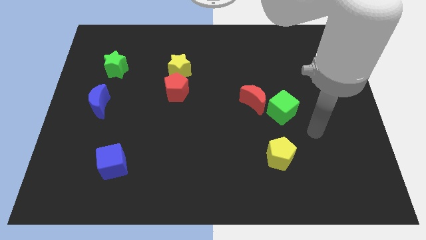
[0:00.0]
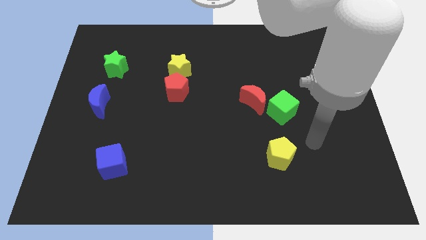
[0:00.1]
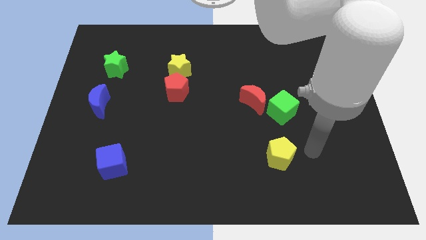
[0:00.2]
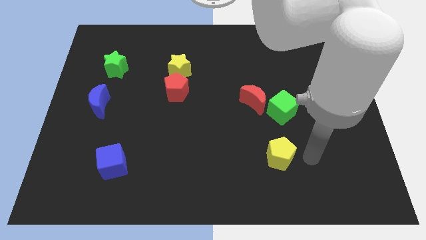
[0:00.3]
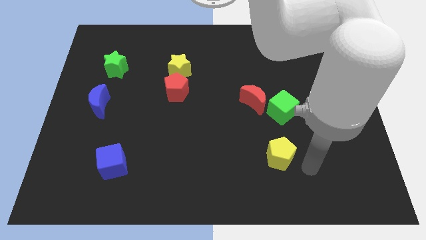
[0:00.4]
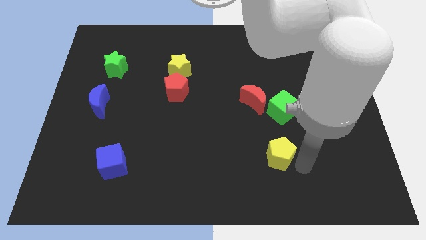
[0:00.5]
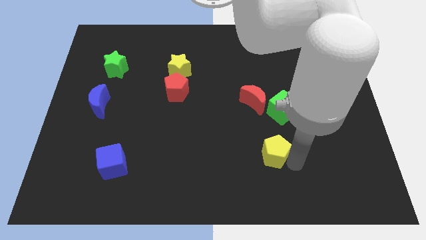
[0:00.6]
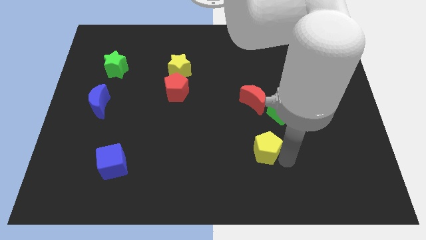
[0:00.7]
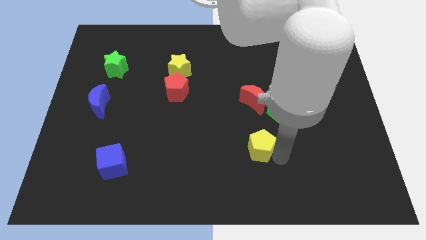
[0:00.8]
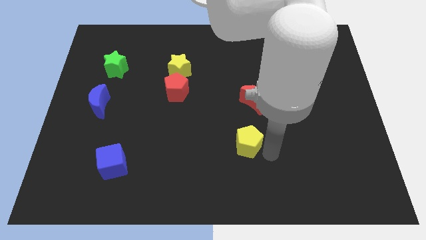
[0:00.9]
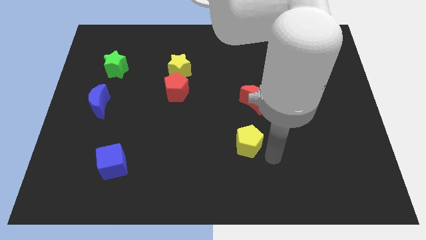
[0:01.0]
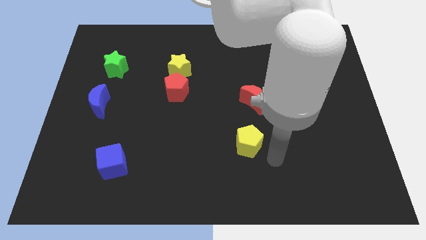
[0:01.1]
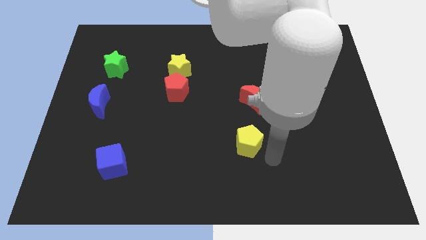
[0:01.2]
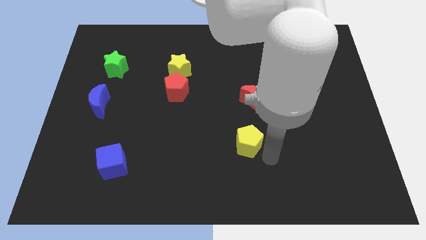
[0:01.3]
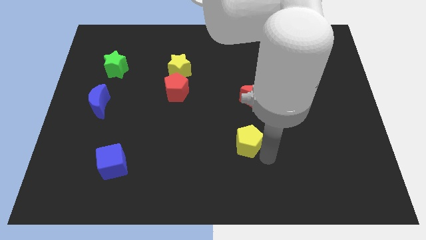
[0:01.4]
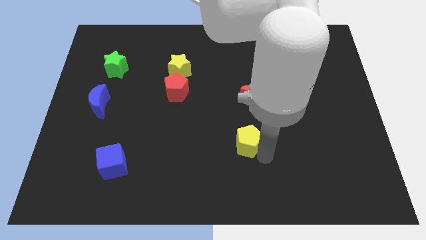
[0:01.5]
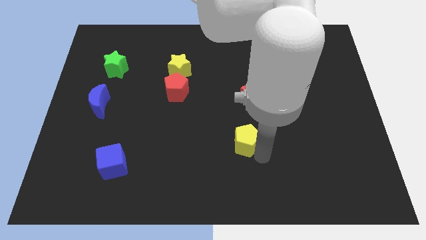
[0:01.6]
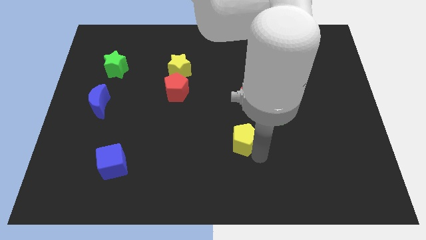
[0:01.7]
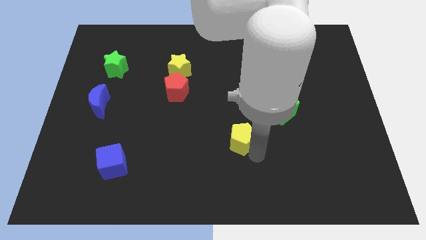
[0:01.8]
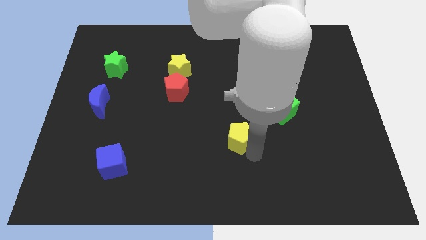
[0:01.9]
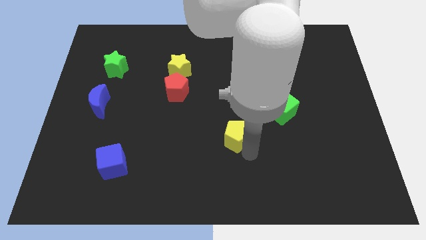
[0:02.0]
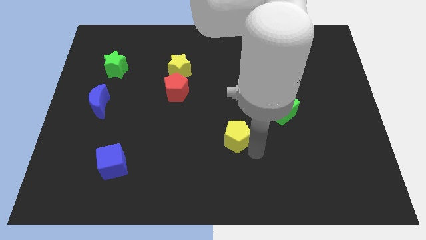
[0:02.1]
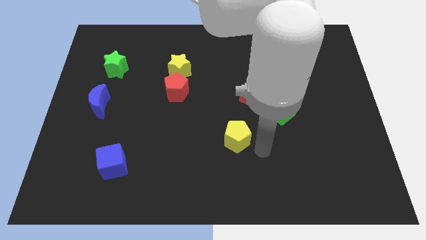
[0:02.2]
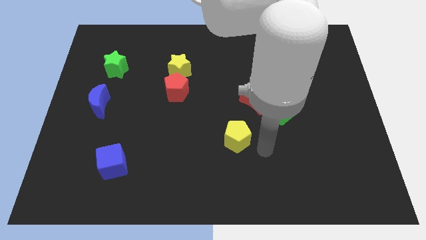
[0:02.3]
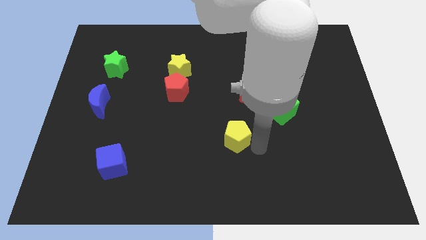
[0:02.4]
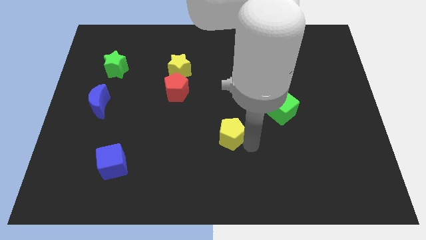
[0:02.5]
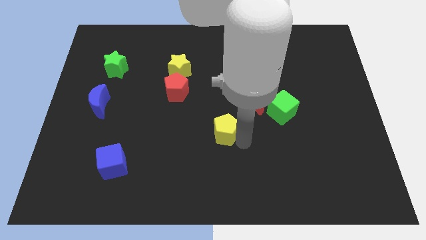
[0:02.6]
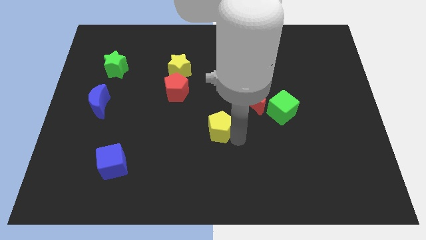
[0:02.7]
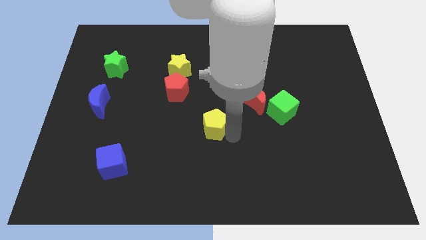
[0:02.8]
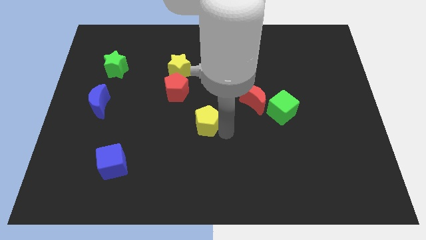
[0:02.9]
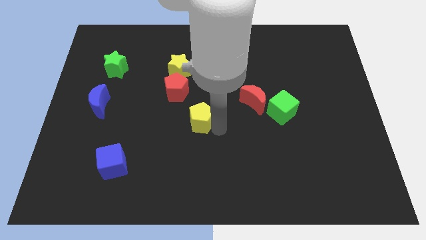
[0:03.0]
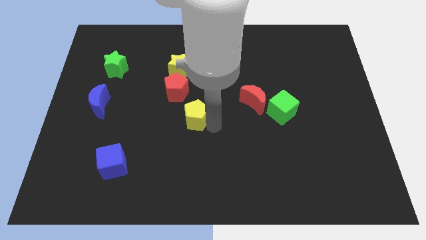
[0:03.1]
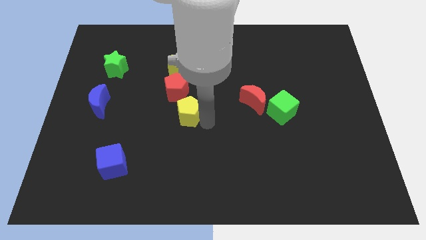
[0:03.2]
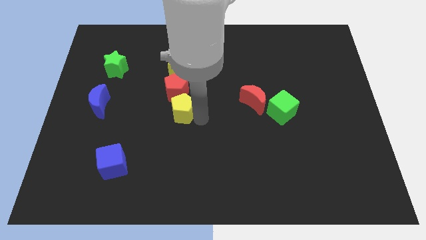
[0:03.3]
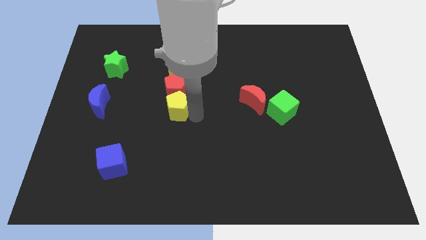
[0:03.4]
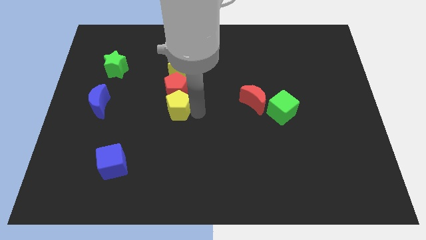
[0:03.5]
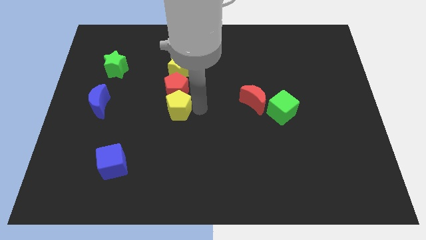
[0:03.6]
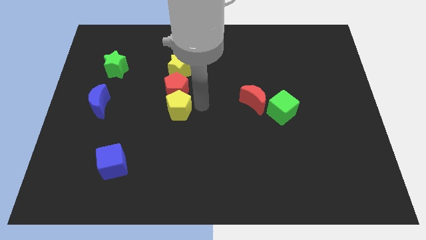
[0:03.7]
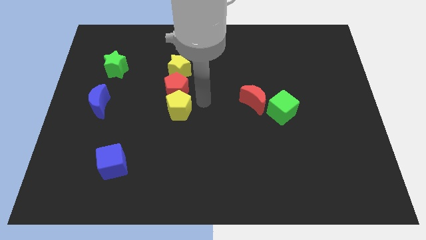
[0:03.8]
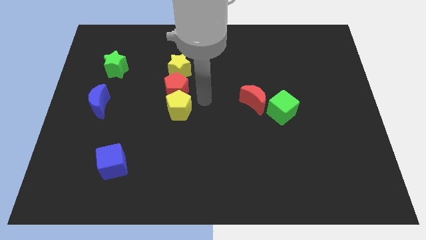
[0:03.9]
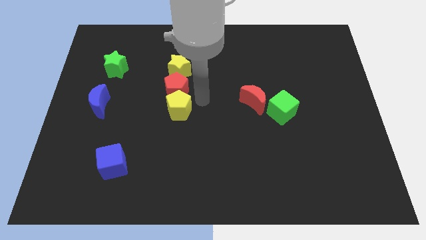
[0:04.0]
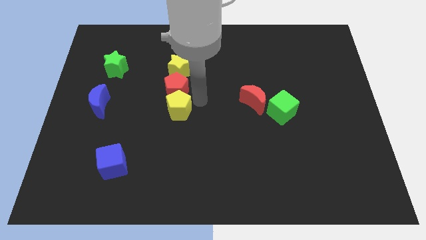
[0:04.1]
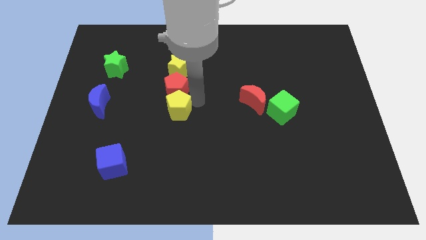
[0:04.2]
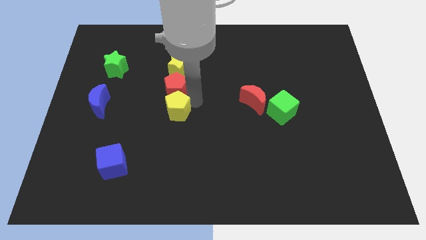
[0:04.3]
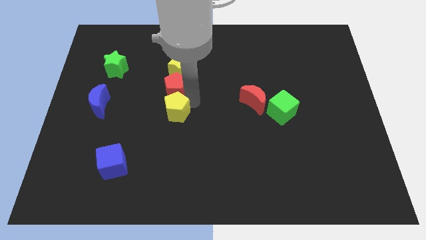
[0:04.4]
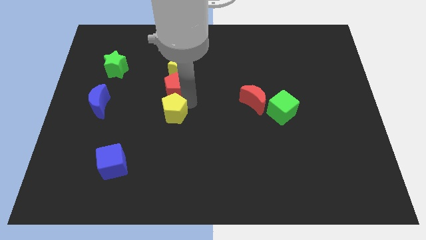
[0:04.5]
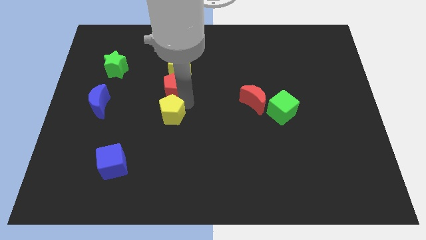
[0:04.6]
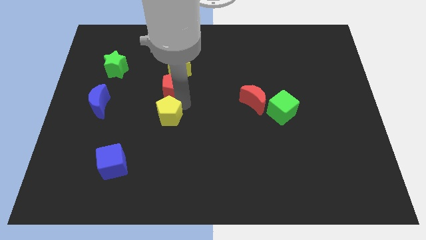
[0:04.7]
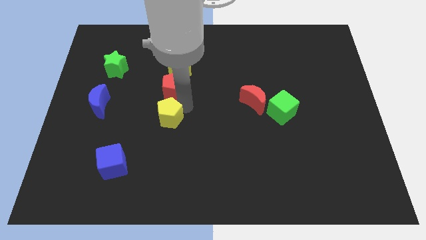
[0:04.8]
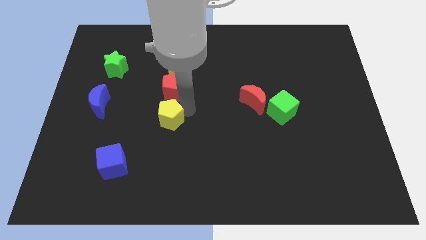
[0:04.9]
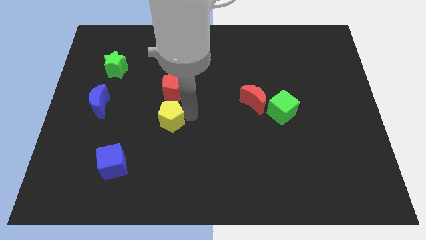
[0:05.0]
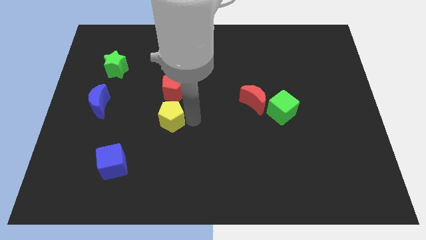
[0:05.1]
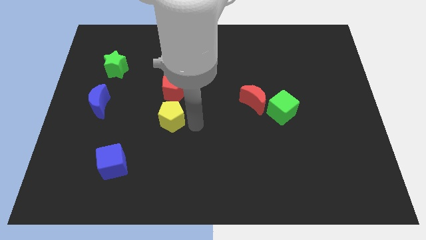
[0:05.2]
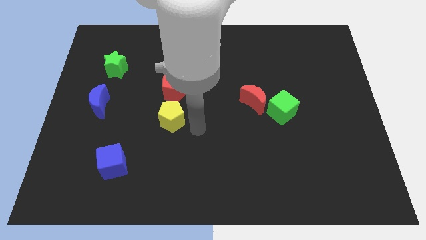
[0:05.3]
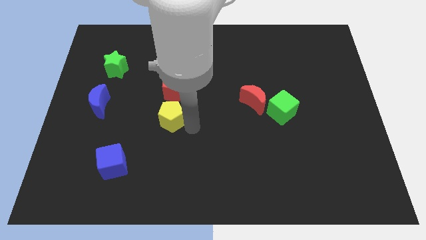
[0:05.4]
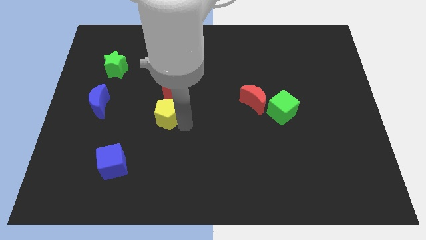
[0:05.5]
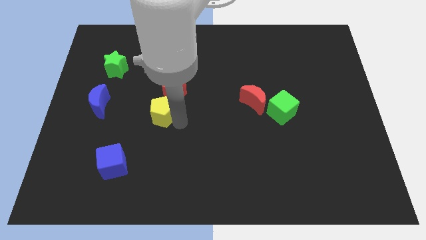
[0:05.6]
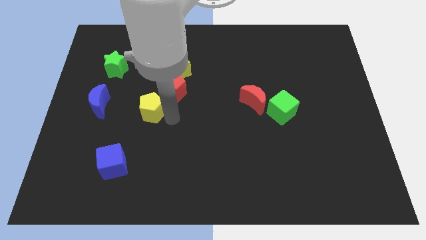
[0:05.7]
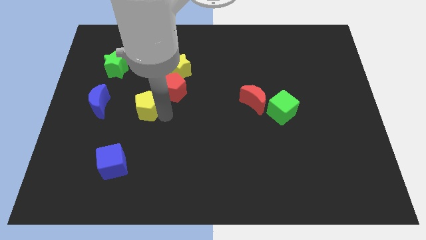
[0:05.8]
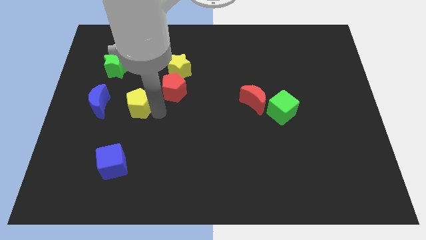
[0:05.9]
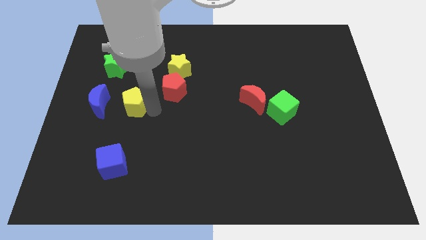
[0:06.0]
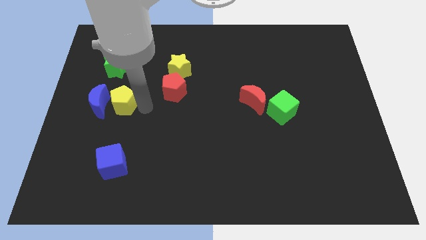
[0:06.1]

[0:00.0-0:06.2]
put the yellow pentagon next to the blue moon
